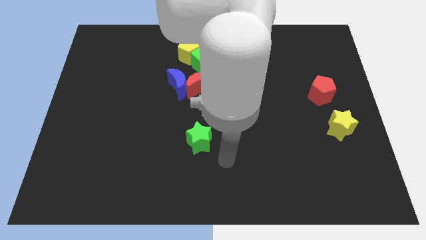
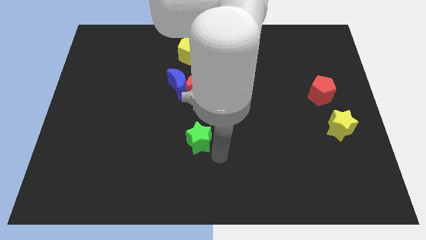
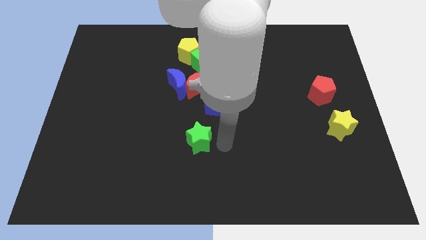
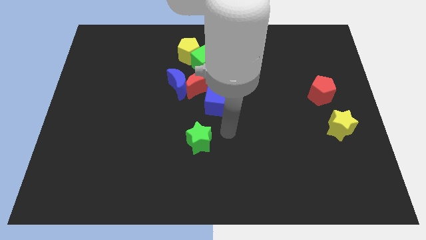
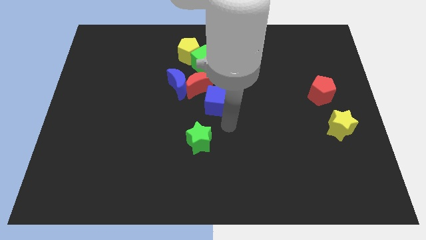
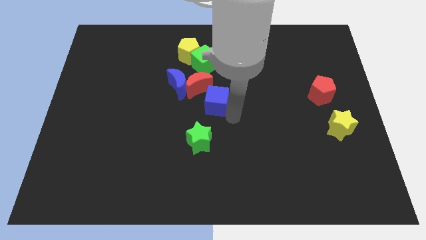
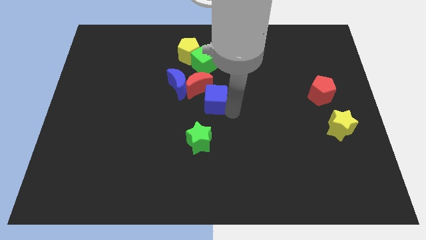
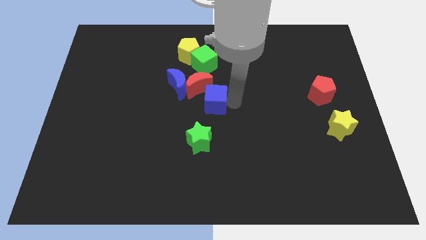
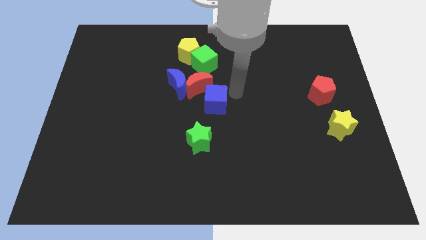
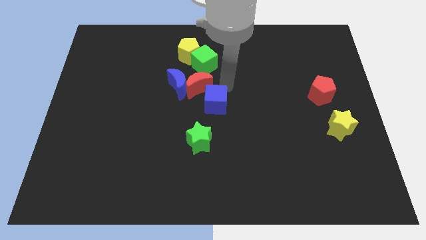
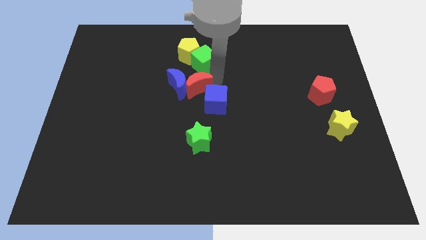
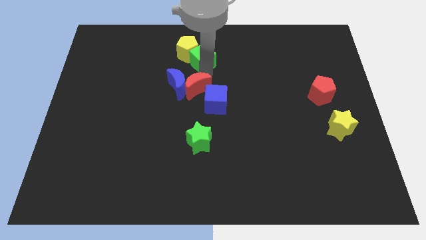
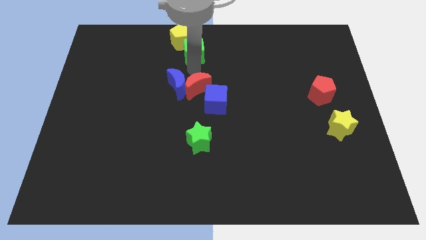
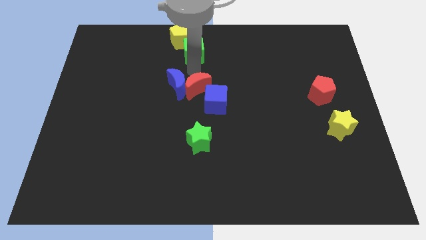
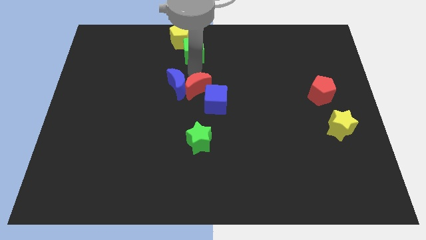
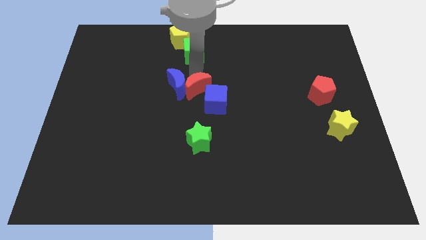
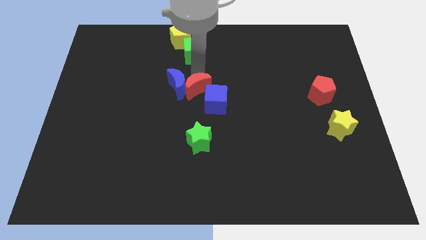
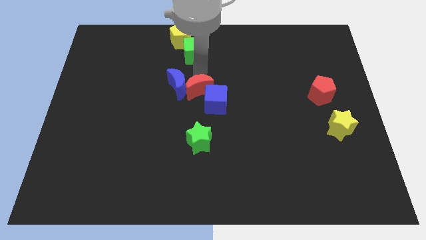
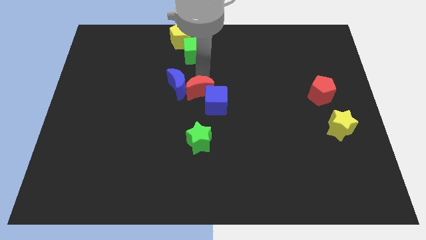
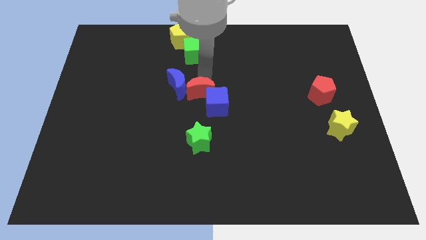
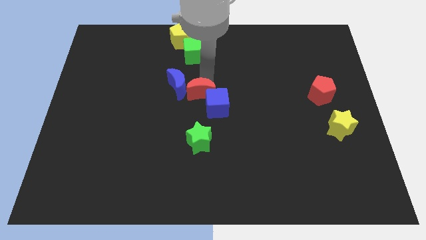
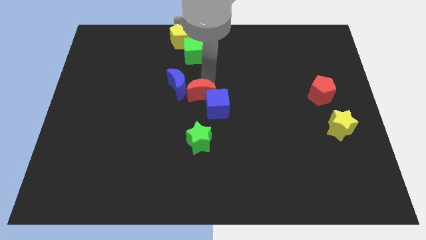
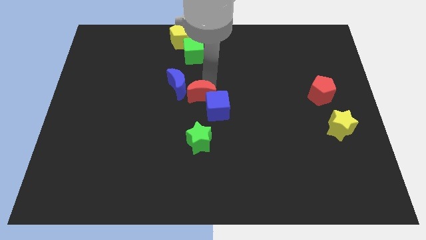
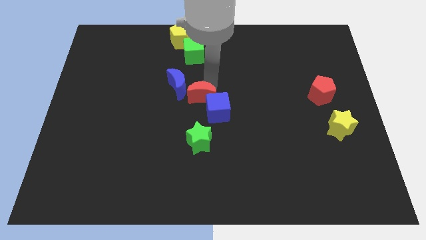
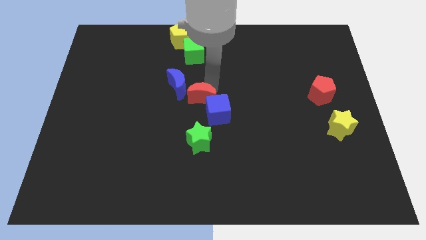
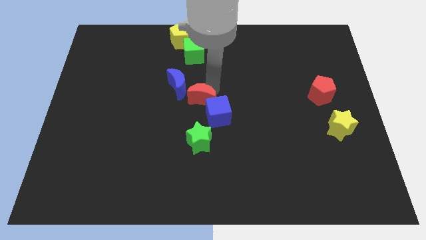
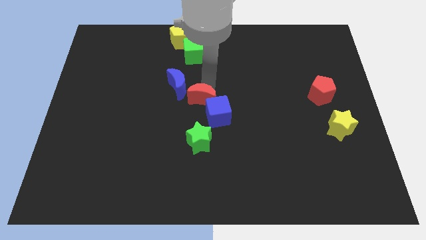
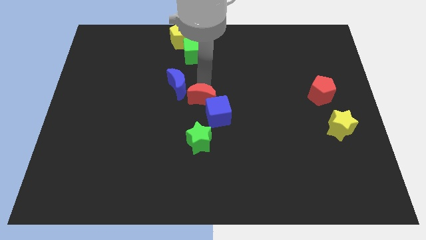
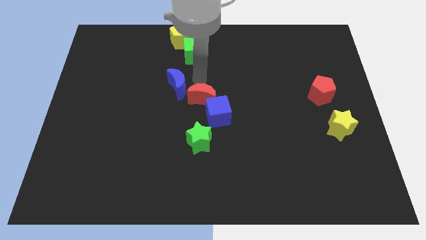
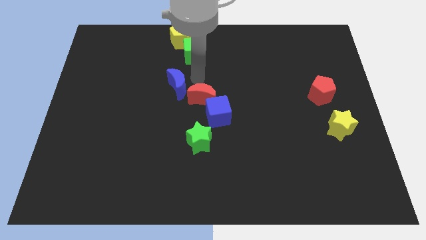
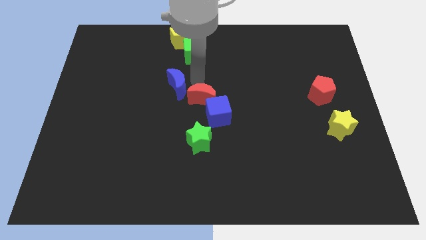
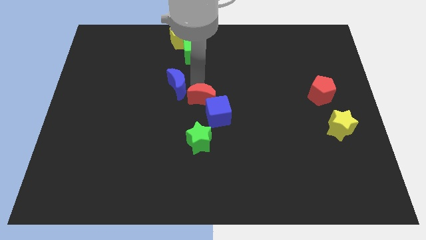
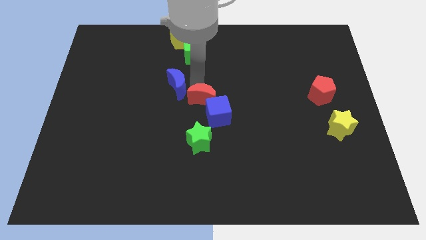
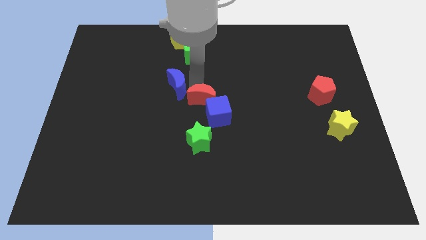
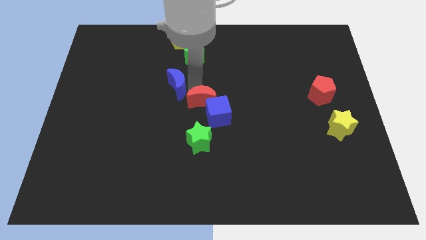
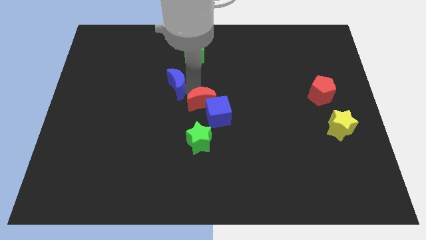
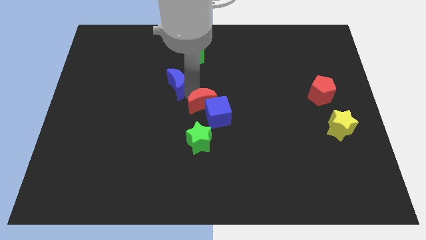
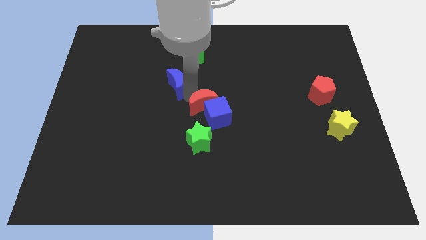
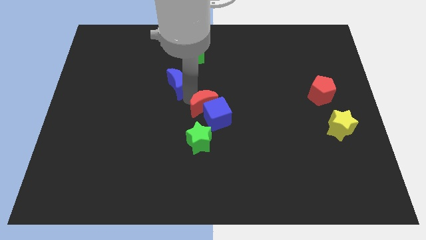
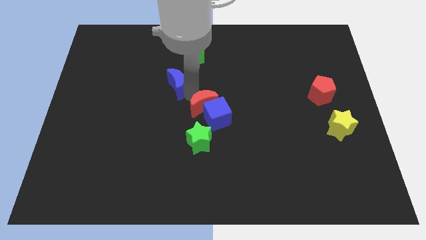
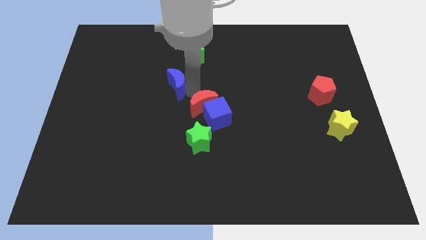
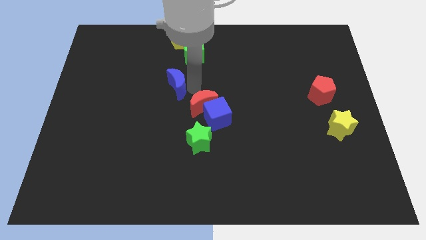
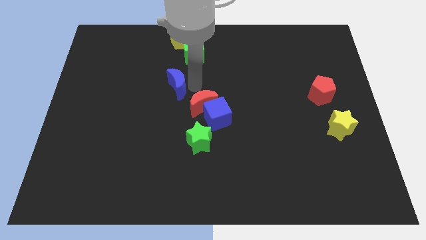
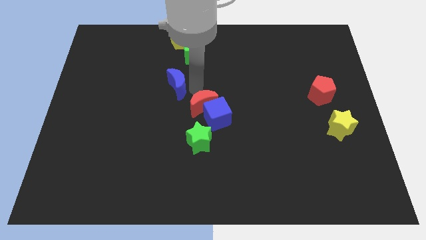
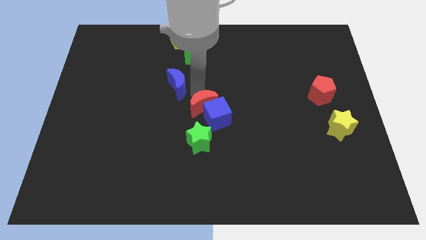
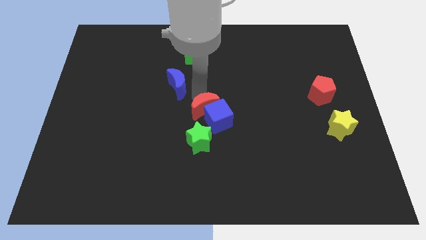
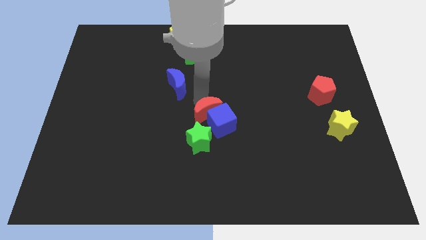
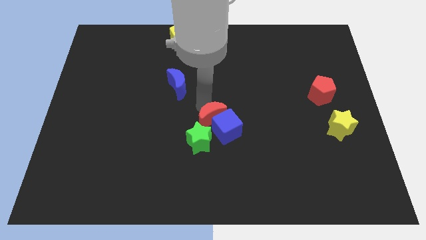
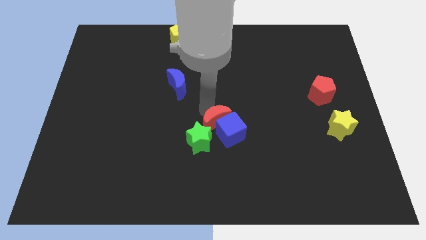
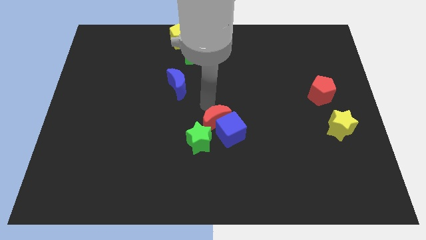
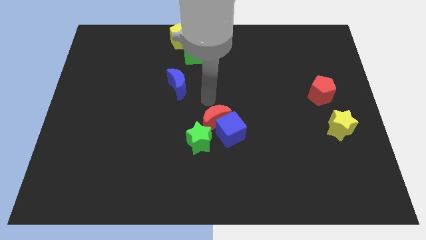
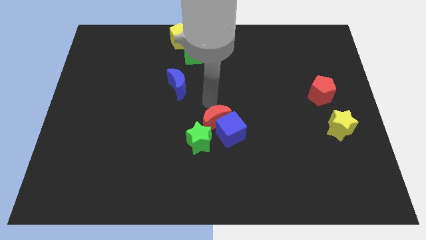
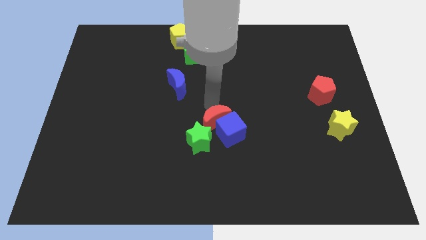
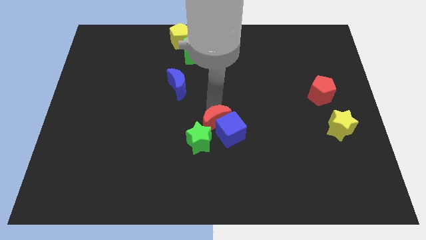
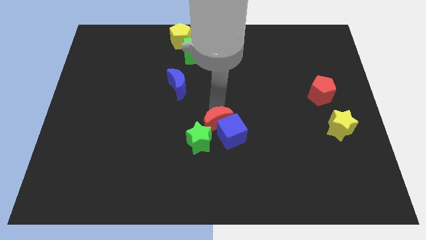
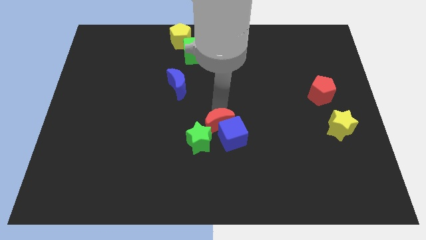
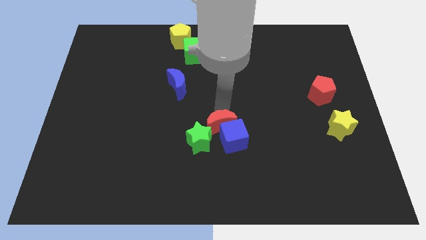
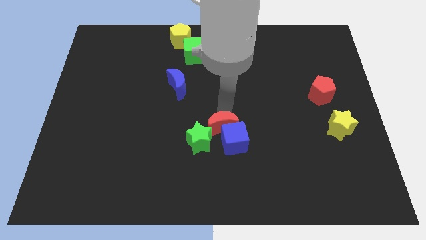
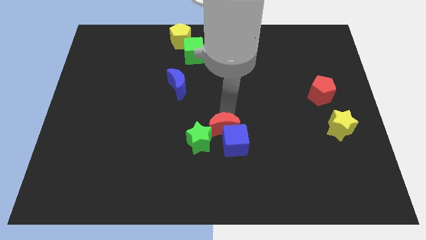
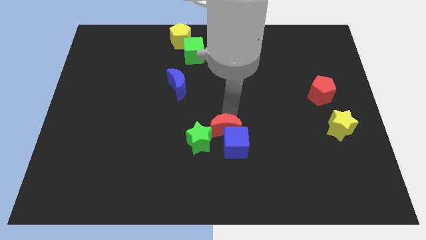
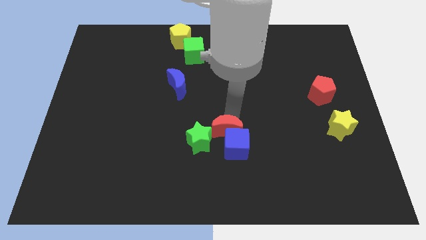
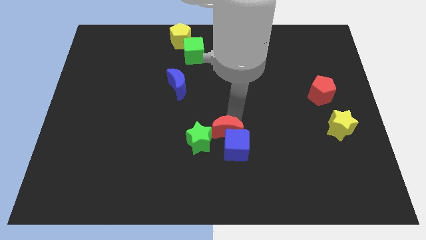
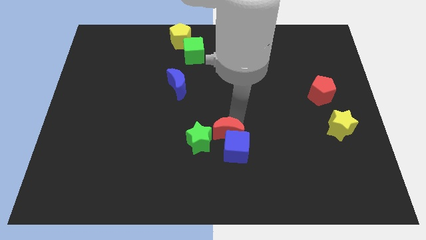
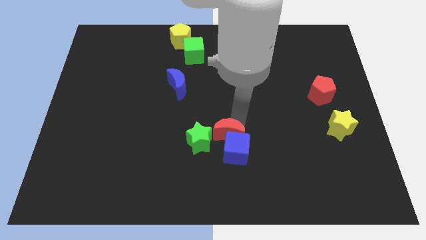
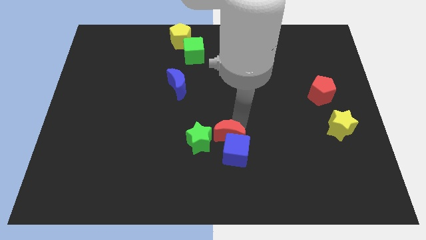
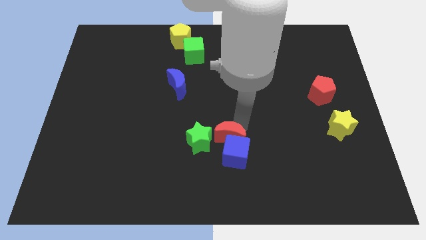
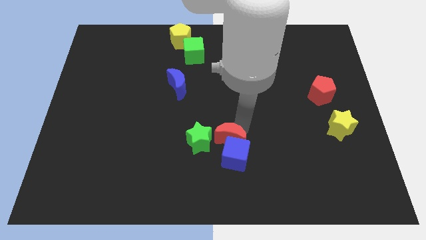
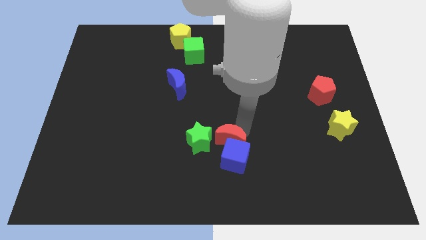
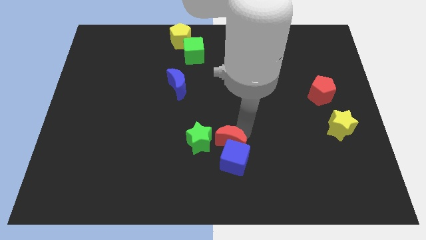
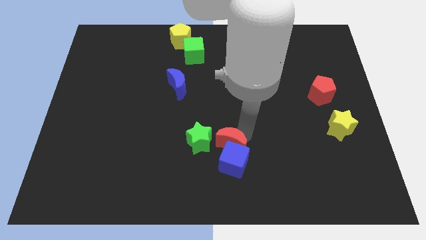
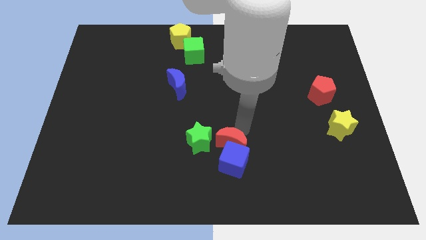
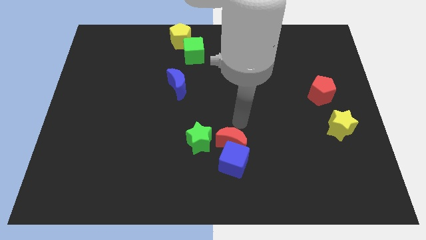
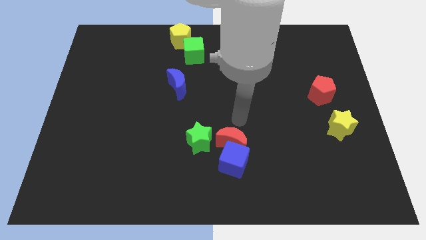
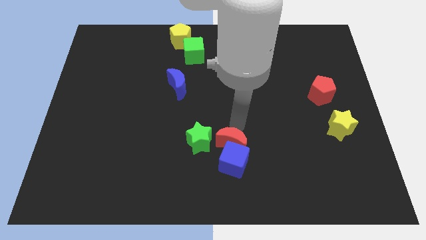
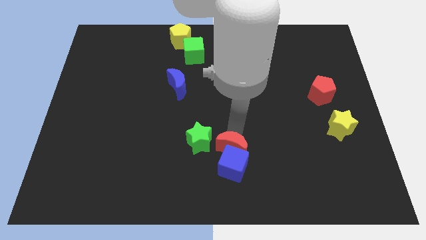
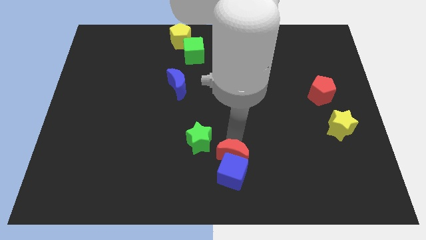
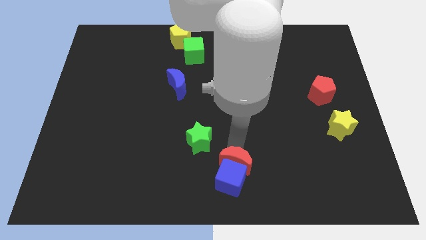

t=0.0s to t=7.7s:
slide the red moon to the bottom side
